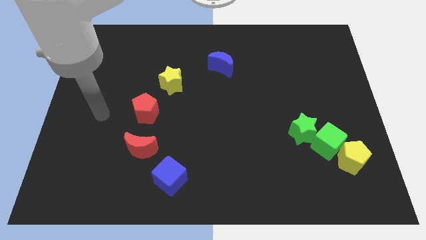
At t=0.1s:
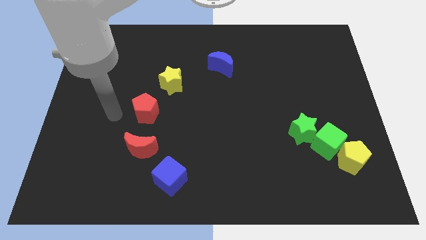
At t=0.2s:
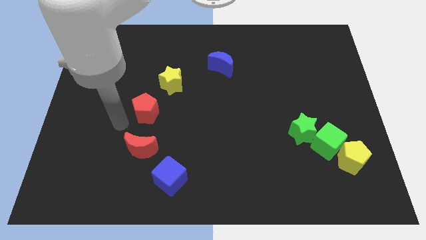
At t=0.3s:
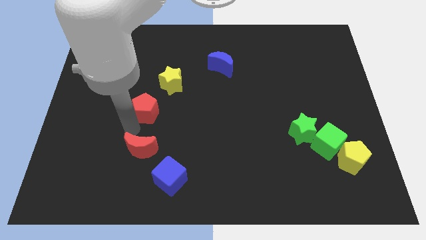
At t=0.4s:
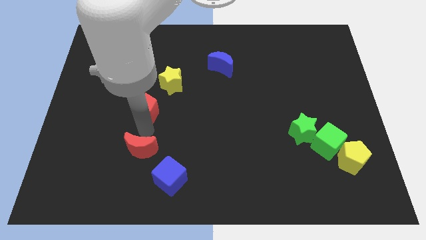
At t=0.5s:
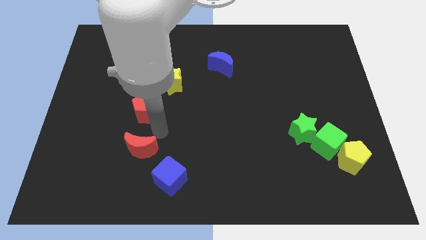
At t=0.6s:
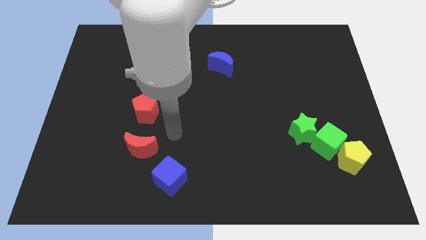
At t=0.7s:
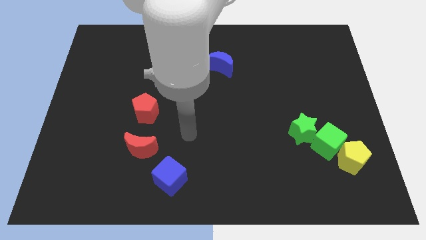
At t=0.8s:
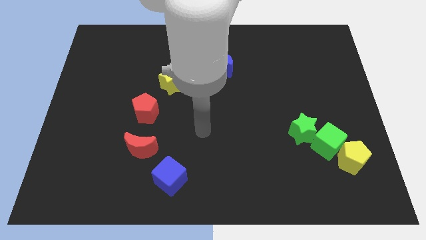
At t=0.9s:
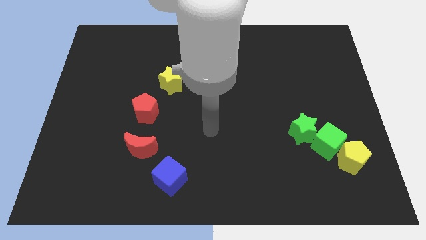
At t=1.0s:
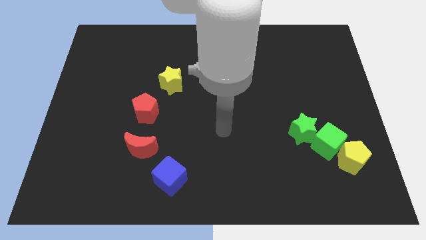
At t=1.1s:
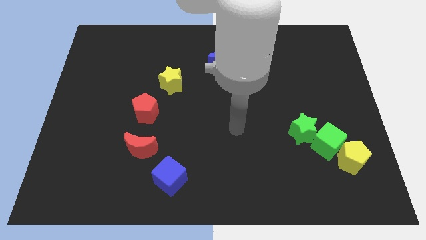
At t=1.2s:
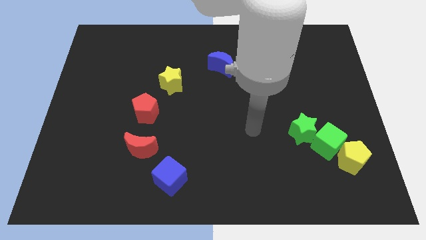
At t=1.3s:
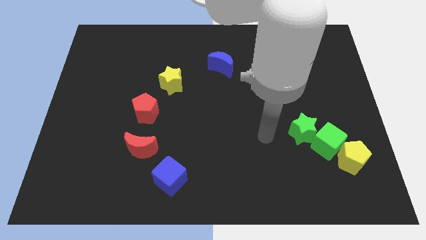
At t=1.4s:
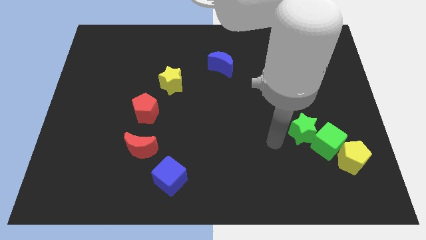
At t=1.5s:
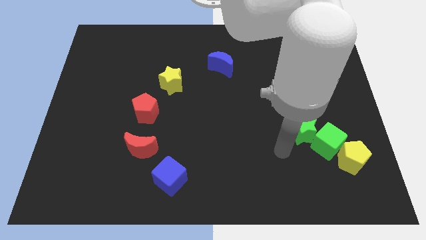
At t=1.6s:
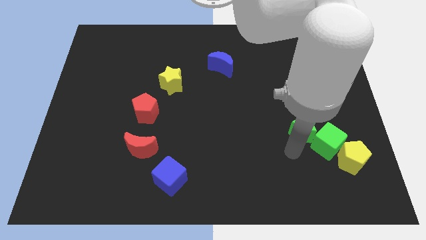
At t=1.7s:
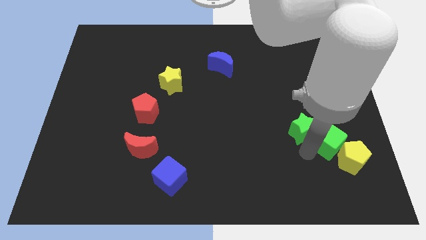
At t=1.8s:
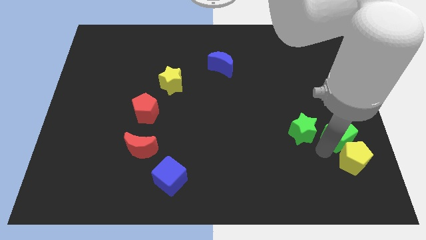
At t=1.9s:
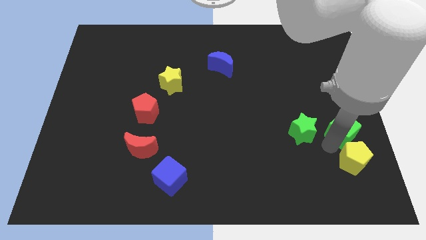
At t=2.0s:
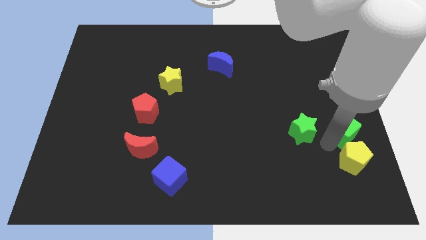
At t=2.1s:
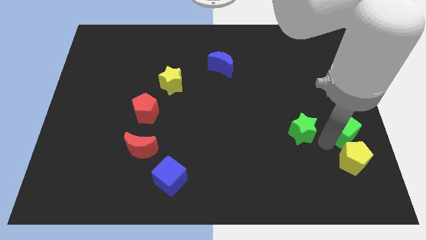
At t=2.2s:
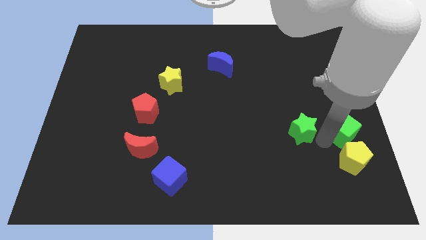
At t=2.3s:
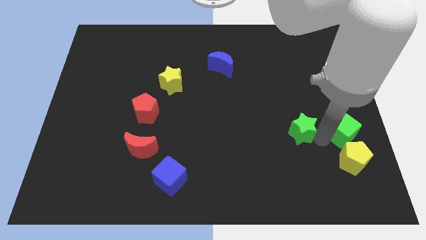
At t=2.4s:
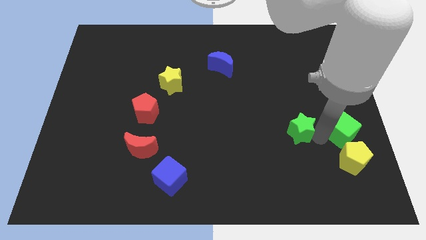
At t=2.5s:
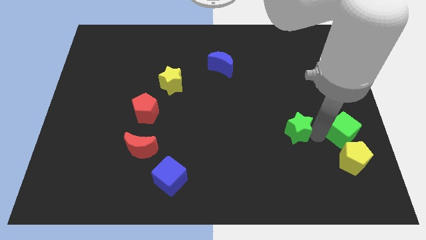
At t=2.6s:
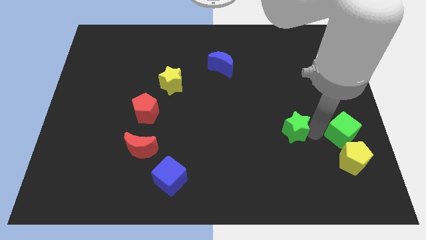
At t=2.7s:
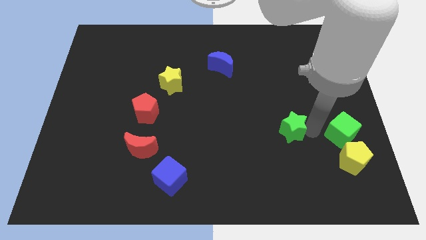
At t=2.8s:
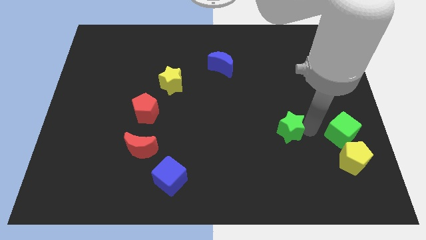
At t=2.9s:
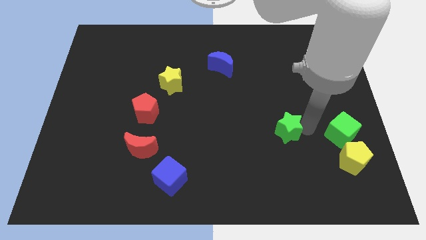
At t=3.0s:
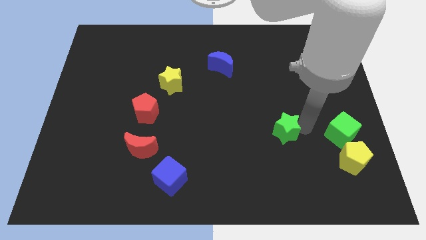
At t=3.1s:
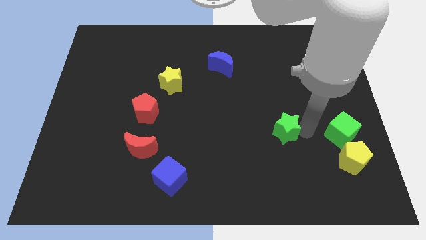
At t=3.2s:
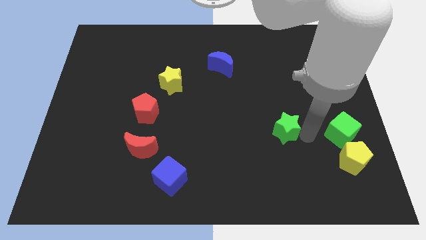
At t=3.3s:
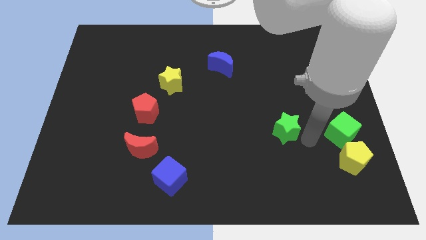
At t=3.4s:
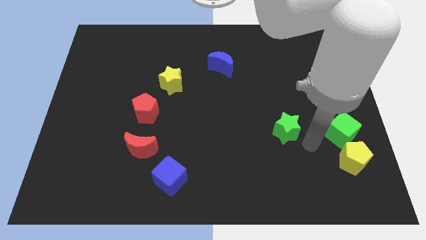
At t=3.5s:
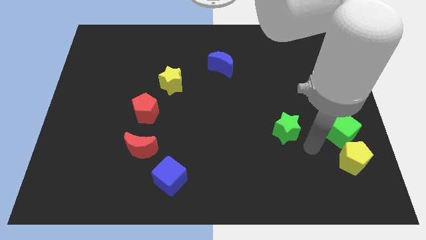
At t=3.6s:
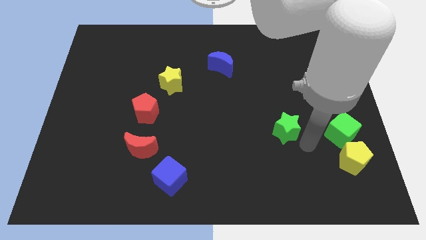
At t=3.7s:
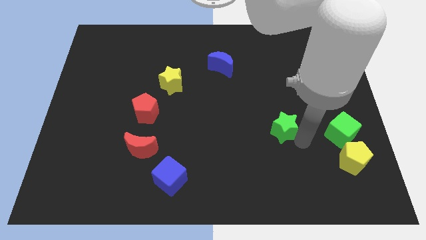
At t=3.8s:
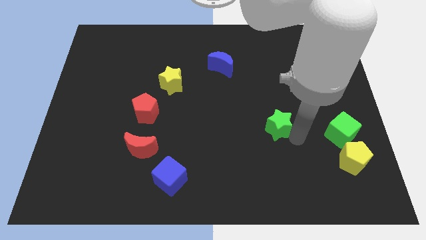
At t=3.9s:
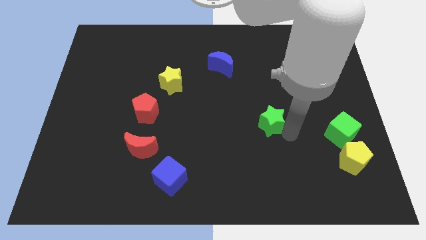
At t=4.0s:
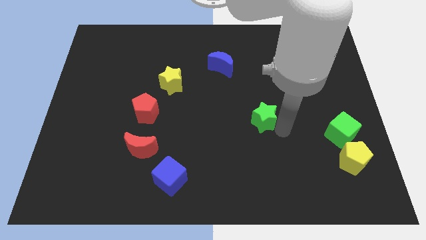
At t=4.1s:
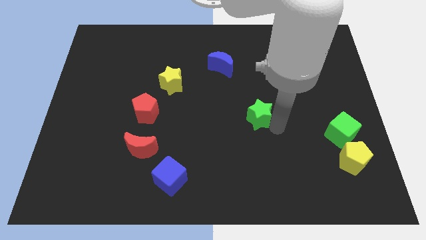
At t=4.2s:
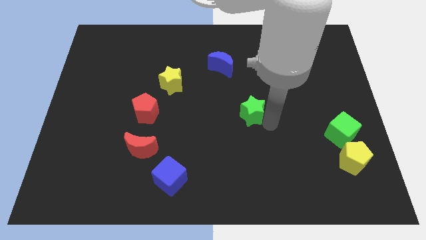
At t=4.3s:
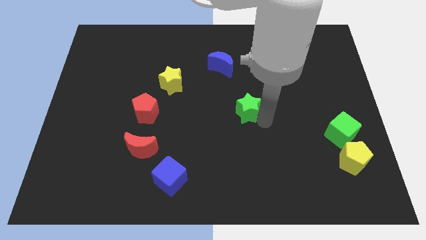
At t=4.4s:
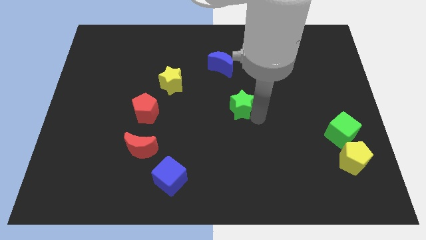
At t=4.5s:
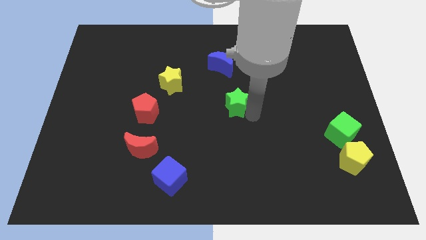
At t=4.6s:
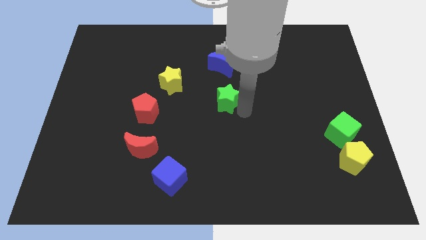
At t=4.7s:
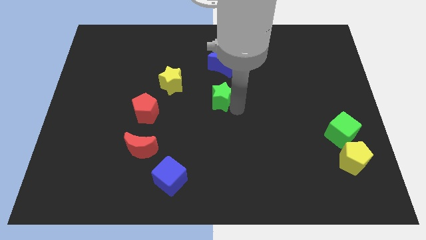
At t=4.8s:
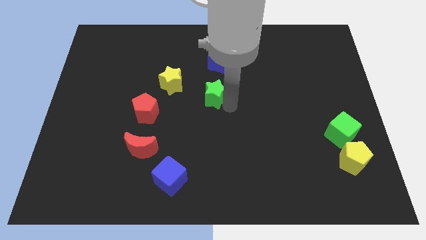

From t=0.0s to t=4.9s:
slide the green star to the right of the yellow star

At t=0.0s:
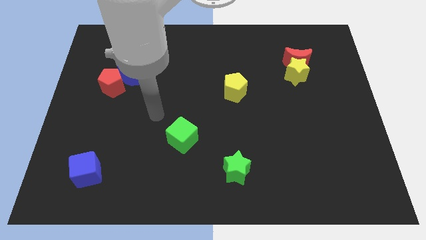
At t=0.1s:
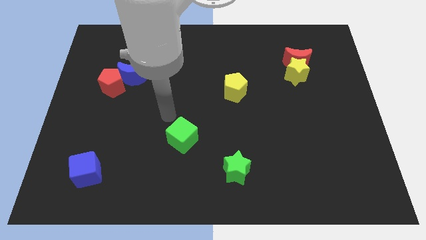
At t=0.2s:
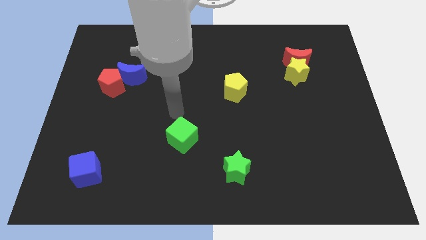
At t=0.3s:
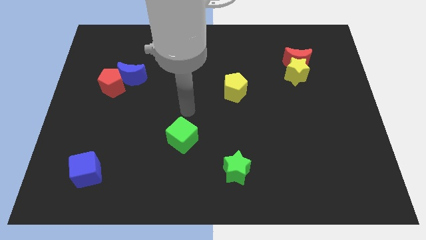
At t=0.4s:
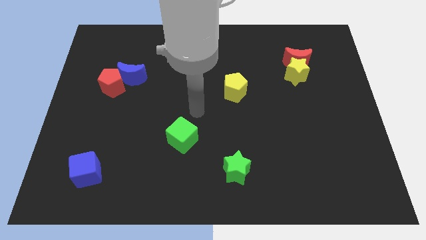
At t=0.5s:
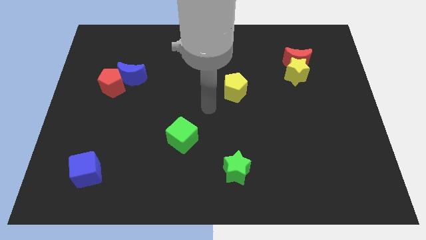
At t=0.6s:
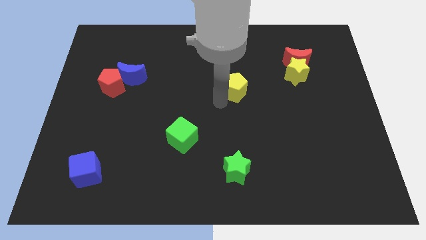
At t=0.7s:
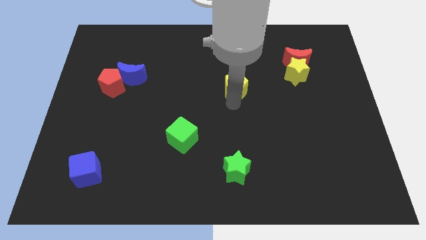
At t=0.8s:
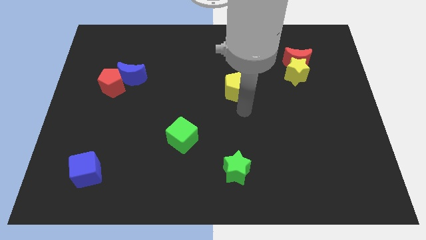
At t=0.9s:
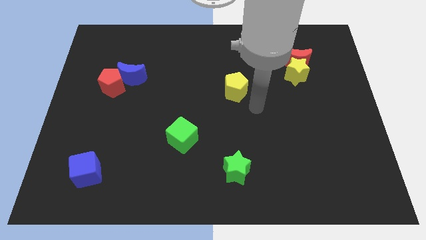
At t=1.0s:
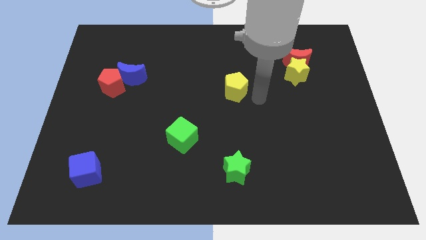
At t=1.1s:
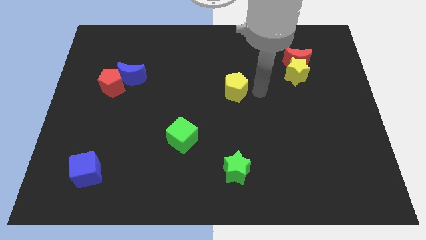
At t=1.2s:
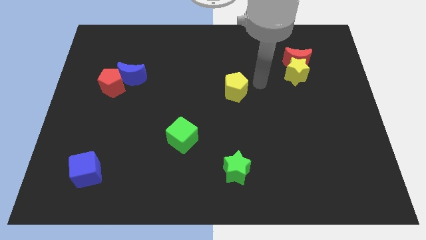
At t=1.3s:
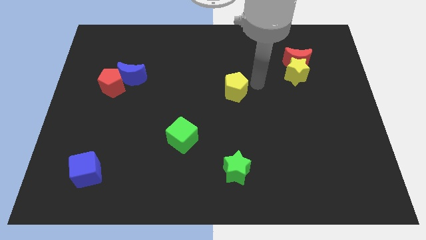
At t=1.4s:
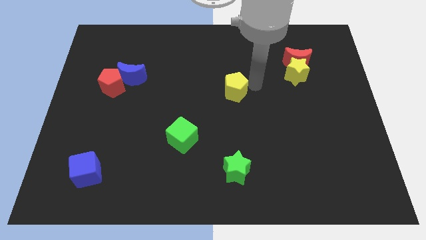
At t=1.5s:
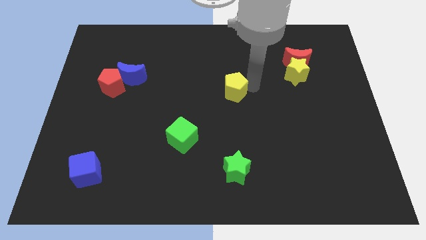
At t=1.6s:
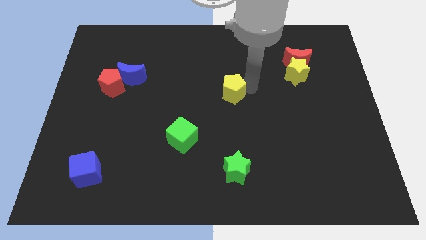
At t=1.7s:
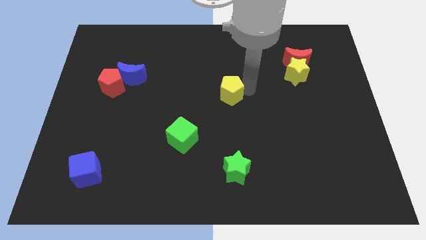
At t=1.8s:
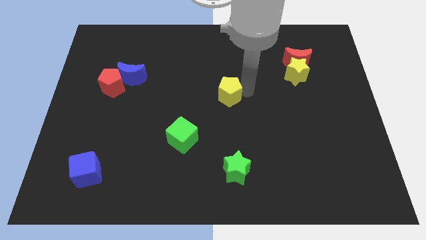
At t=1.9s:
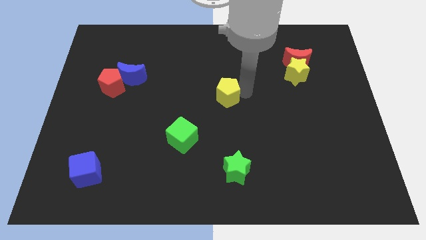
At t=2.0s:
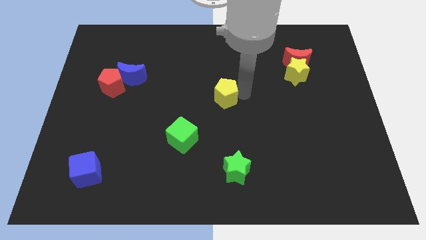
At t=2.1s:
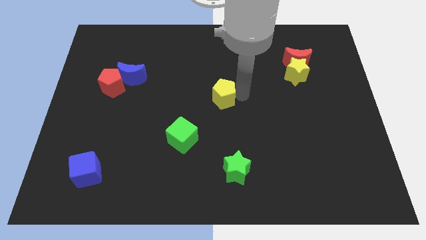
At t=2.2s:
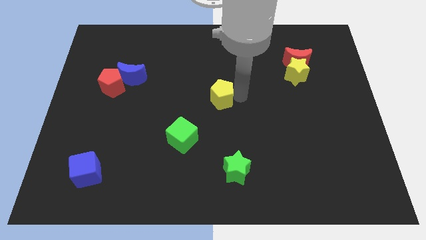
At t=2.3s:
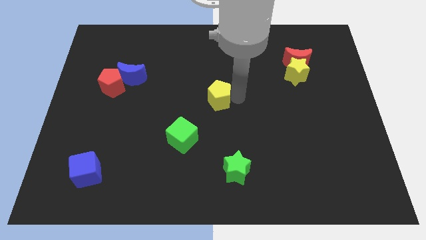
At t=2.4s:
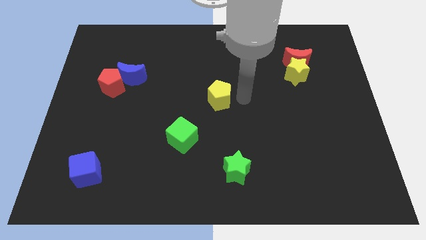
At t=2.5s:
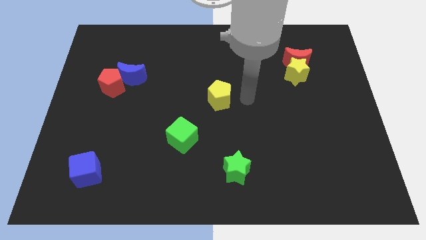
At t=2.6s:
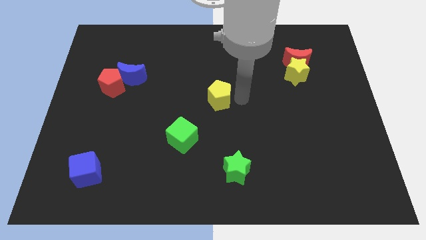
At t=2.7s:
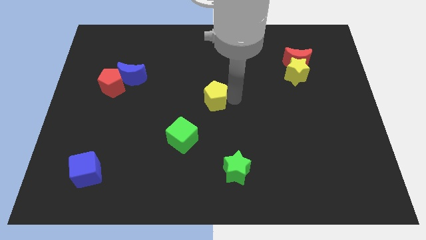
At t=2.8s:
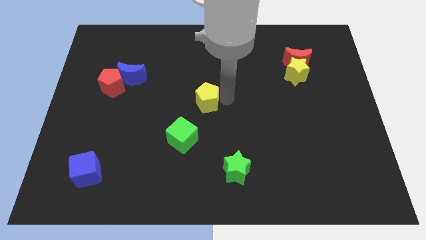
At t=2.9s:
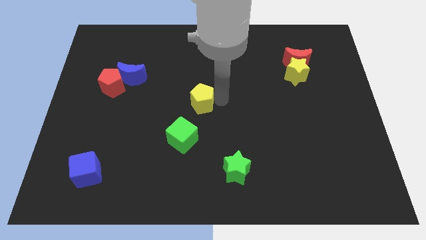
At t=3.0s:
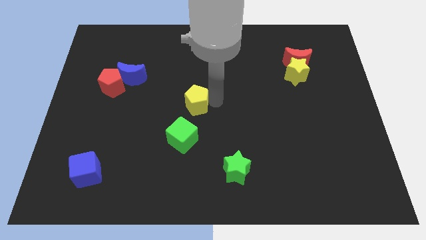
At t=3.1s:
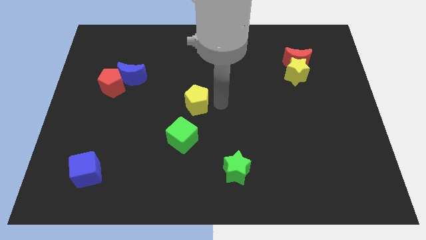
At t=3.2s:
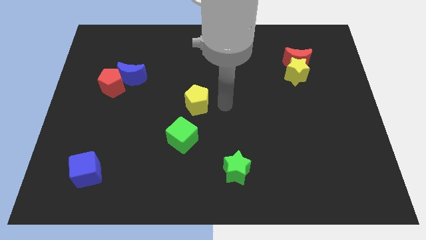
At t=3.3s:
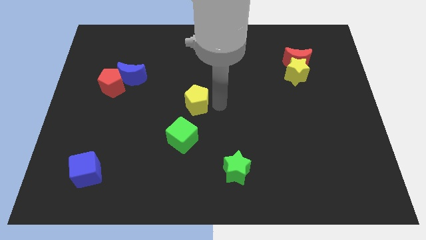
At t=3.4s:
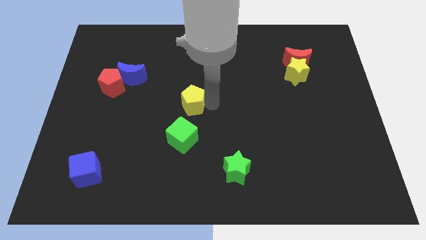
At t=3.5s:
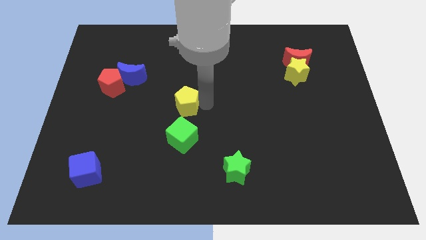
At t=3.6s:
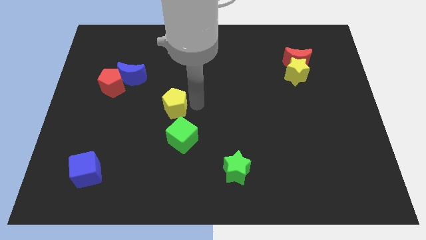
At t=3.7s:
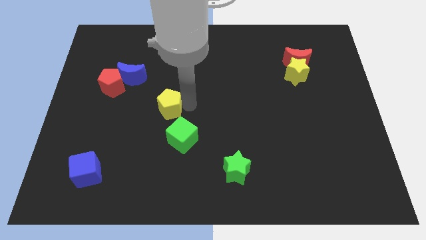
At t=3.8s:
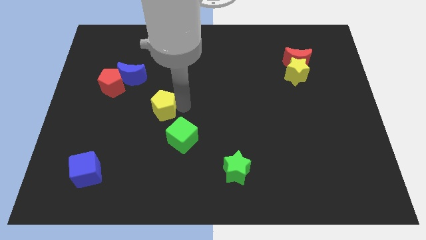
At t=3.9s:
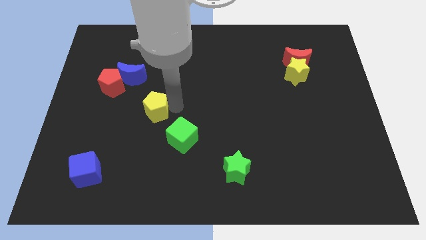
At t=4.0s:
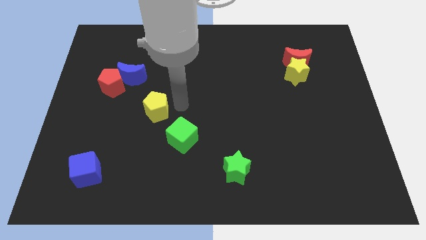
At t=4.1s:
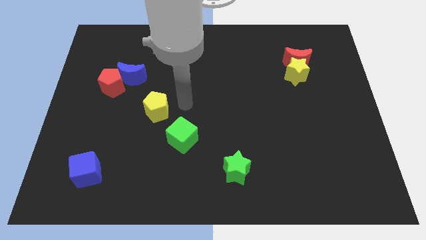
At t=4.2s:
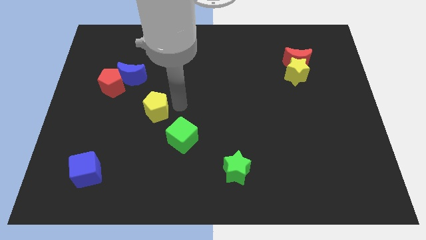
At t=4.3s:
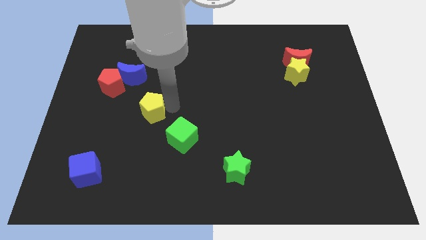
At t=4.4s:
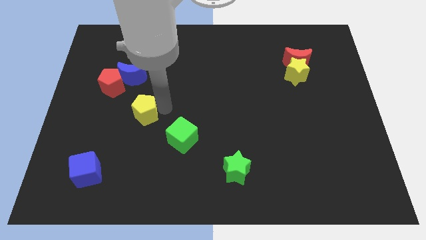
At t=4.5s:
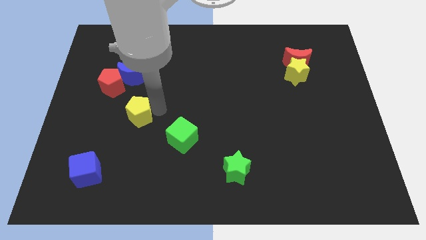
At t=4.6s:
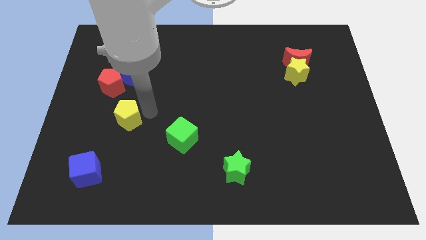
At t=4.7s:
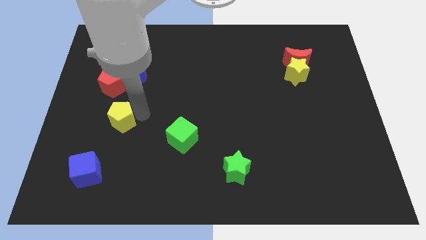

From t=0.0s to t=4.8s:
put the yellow pentagon to the bottom of the red pentagon
